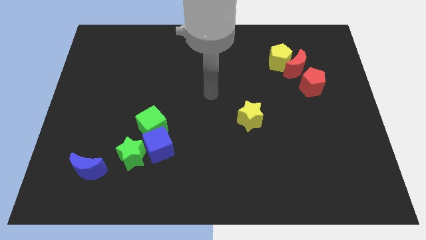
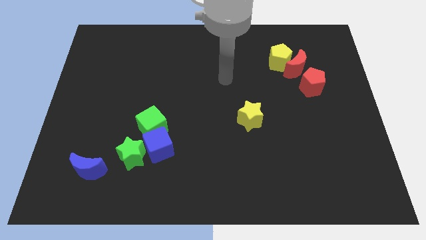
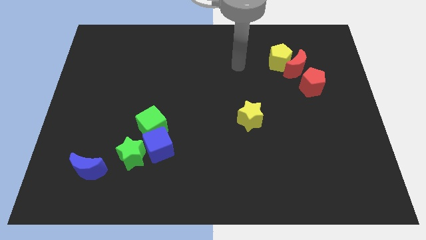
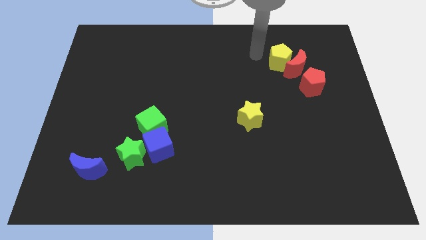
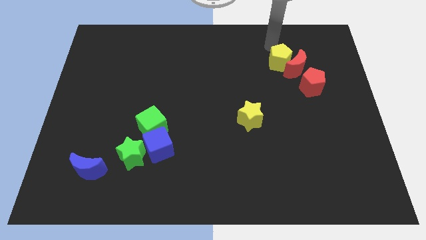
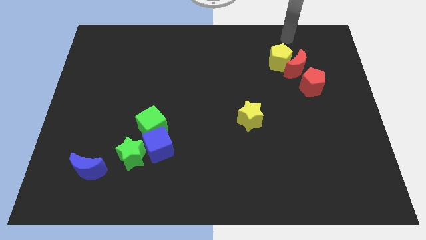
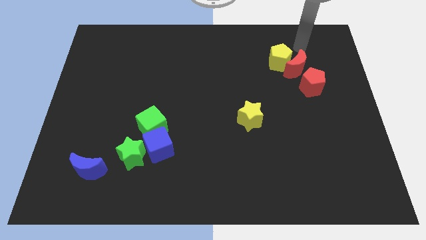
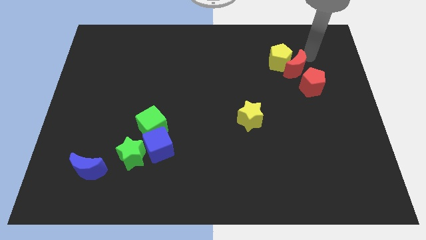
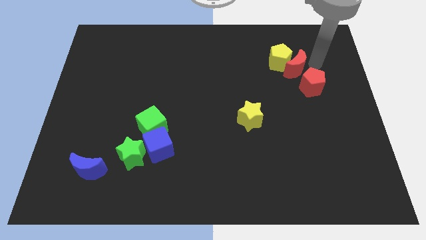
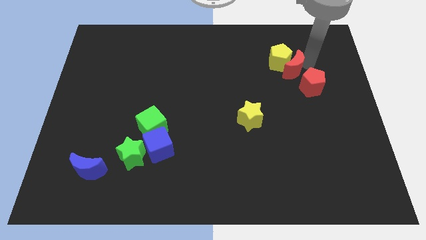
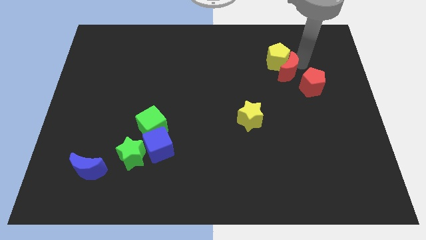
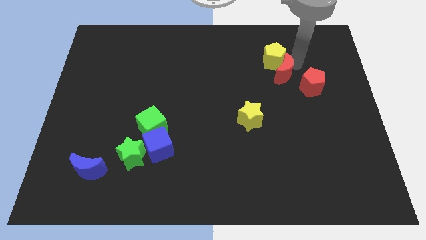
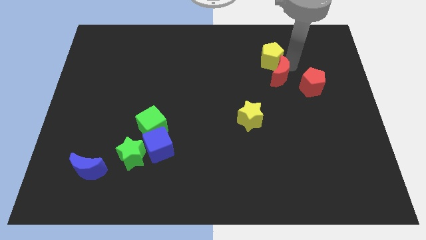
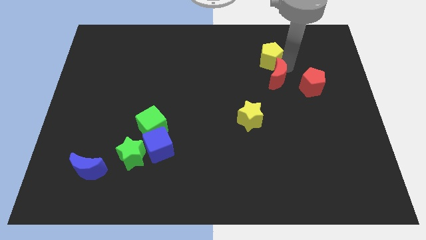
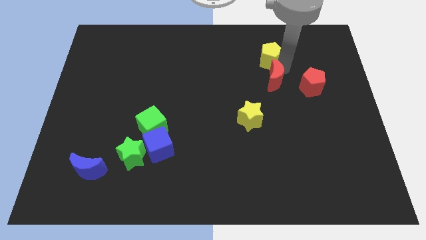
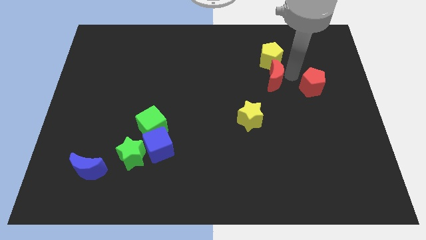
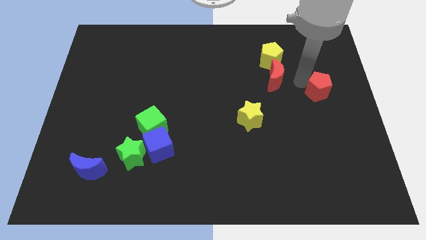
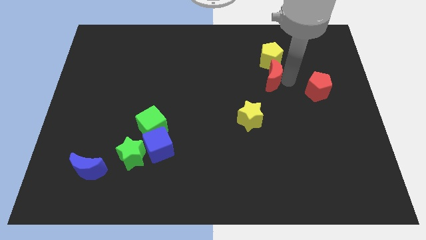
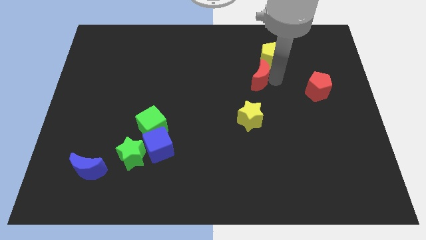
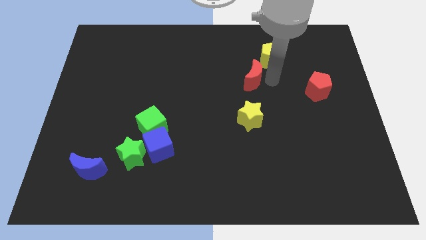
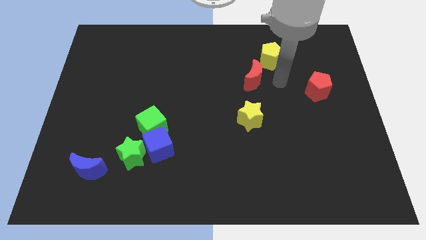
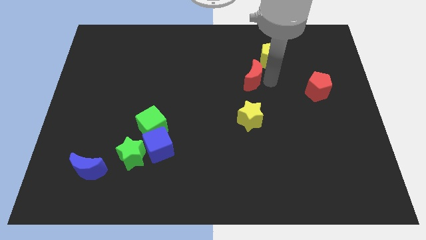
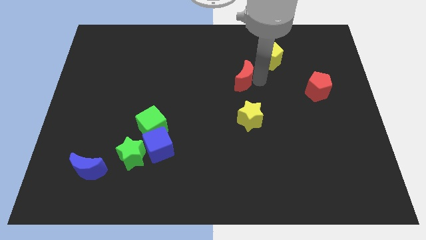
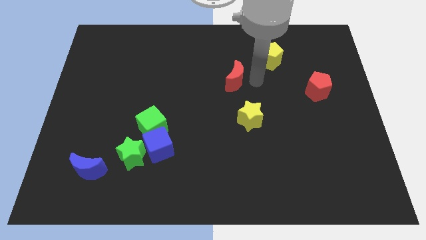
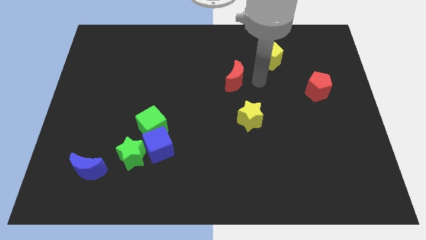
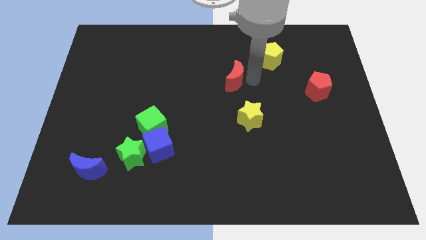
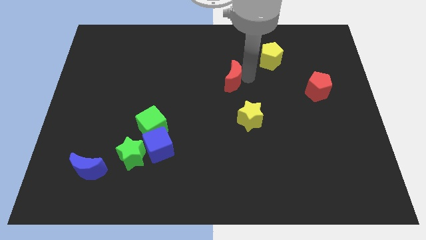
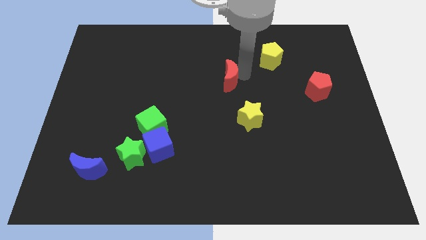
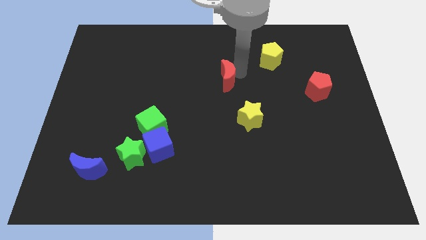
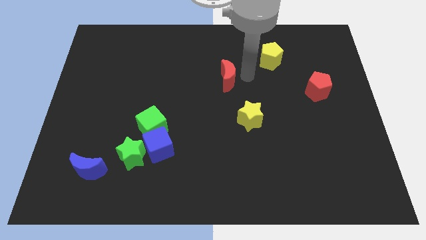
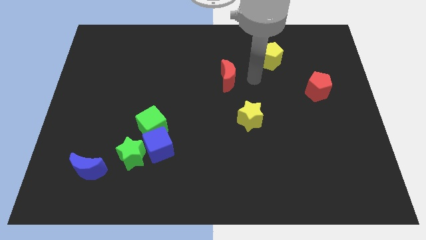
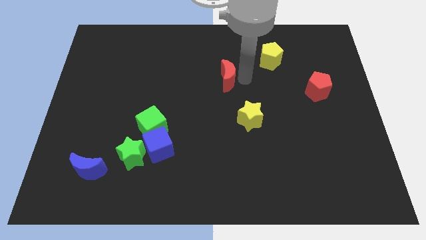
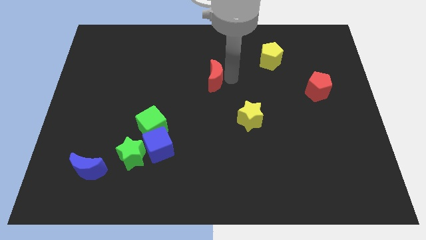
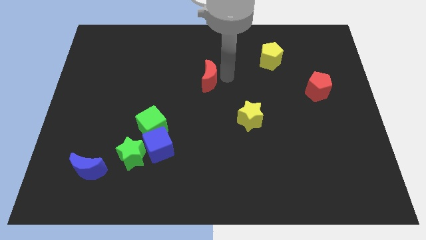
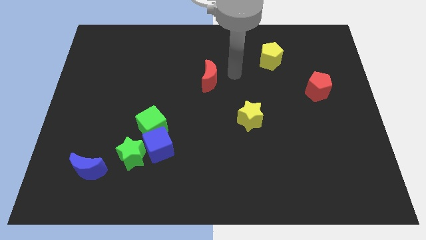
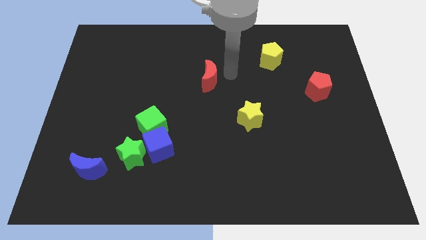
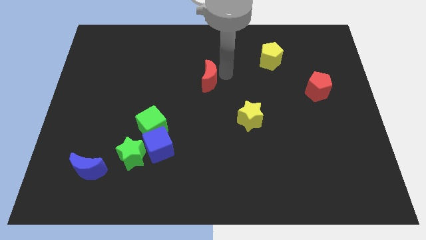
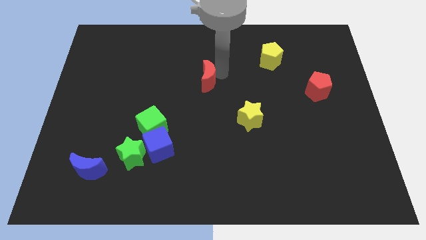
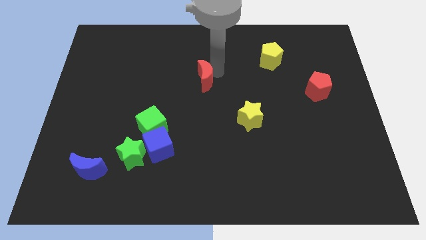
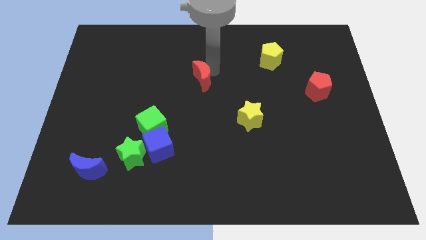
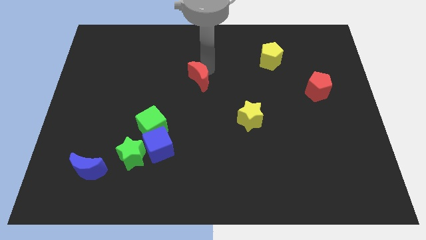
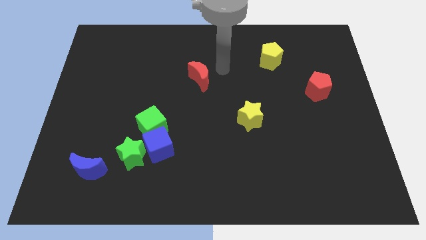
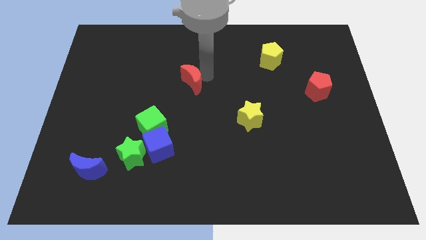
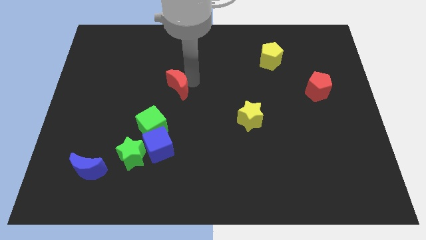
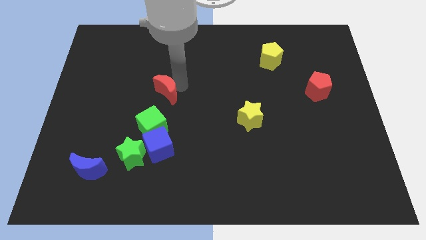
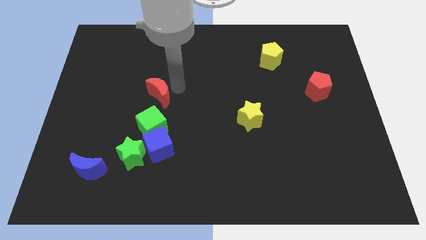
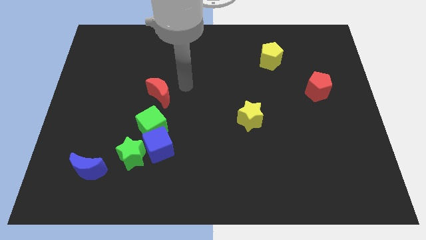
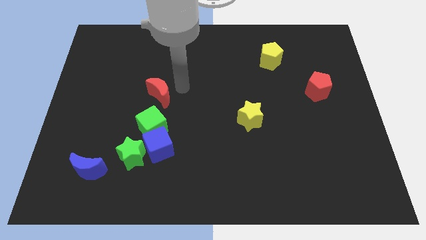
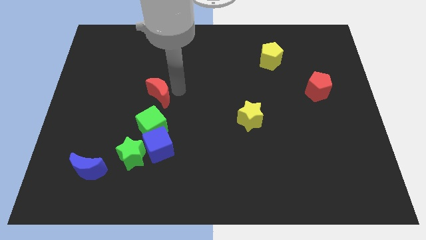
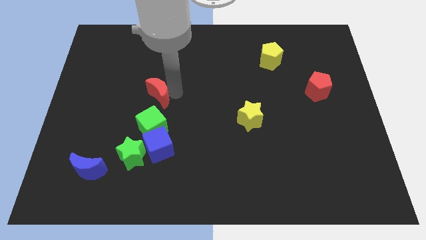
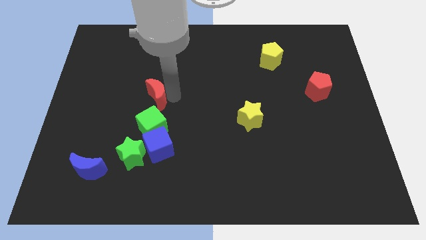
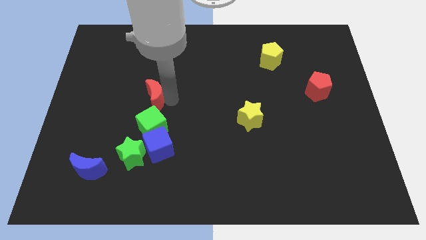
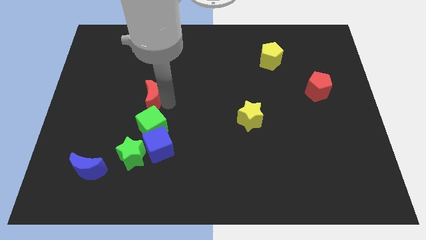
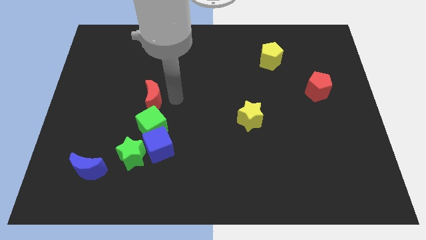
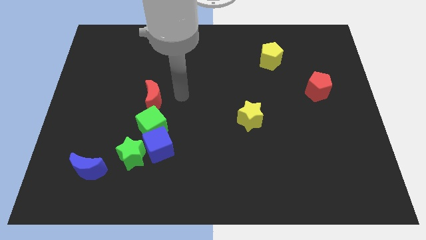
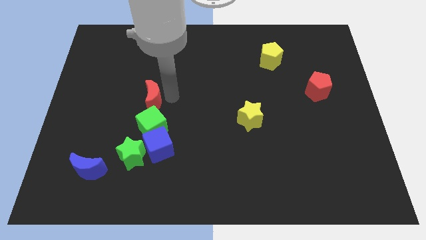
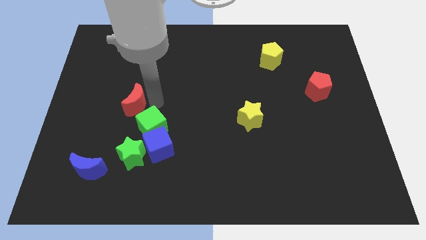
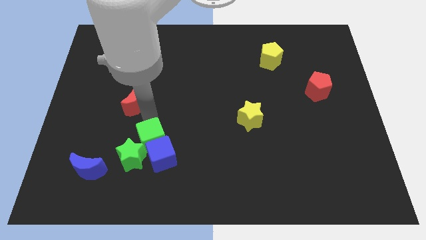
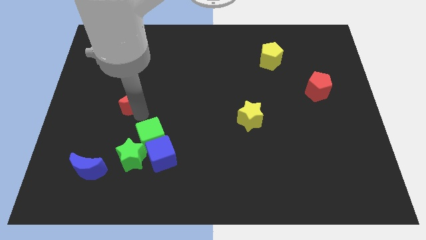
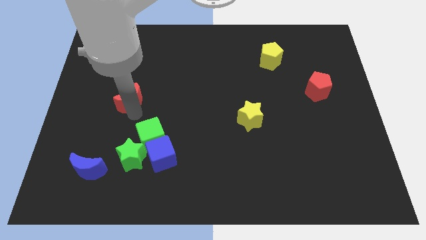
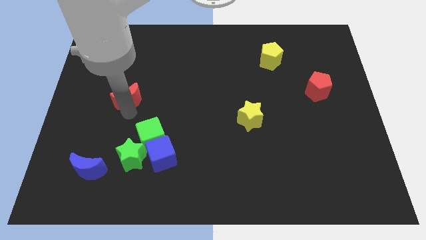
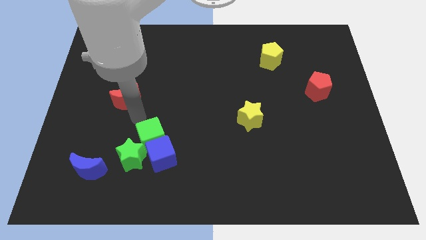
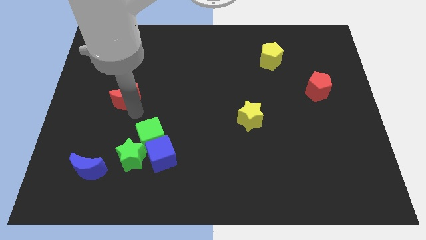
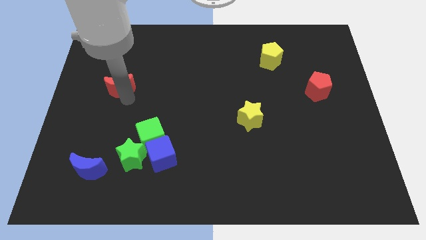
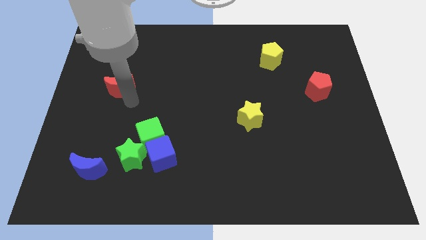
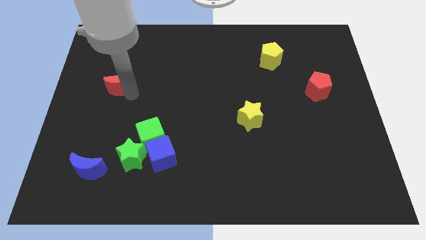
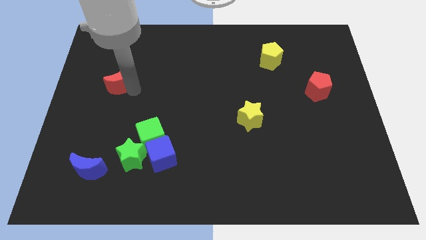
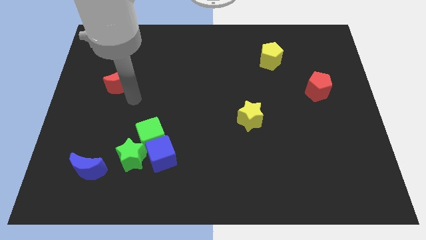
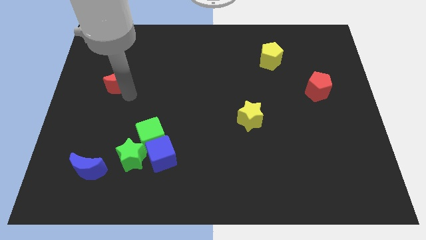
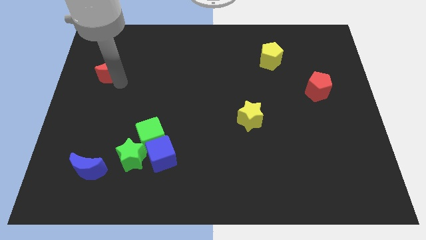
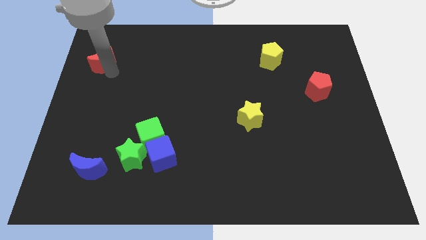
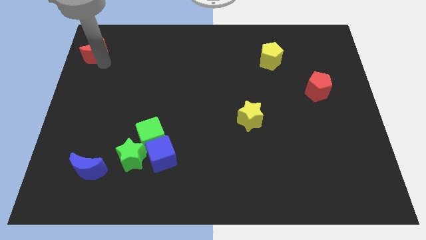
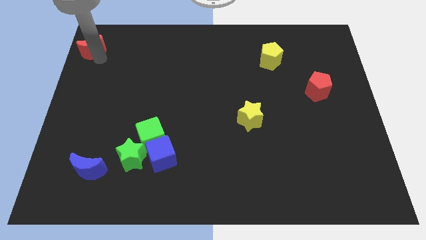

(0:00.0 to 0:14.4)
push the red moon to the top left corner
